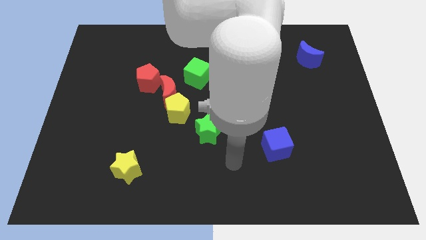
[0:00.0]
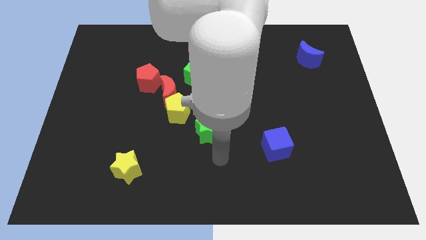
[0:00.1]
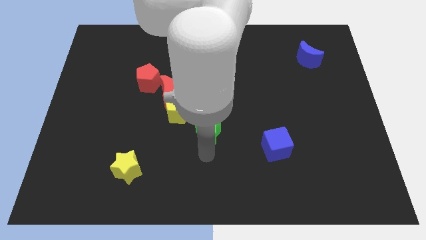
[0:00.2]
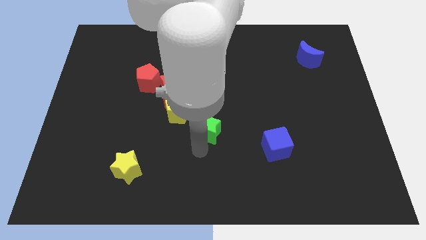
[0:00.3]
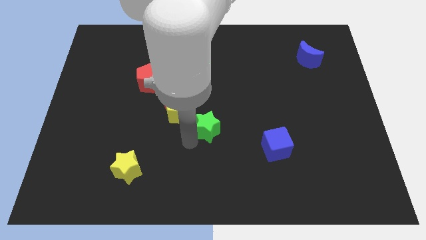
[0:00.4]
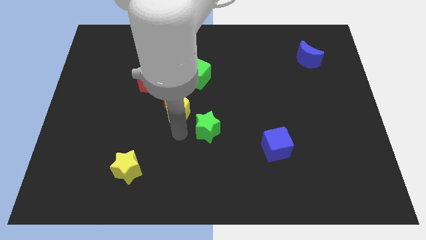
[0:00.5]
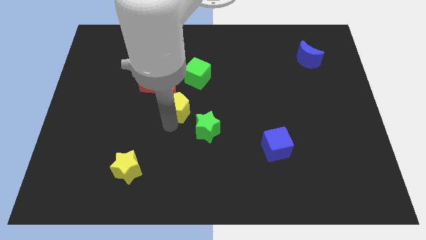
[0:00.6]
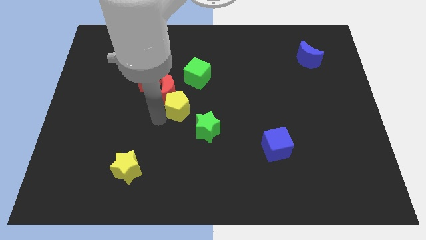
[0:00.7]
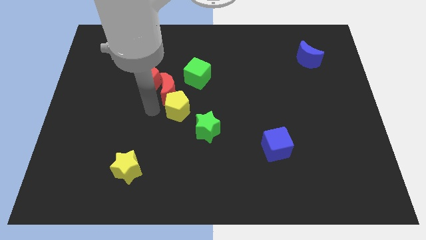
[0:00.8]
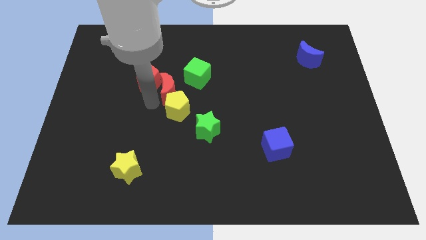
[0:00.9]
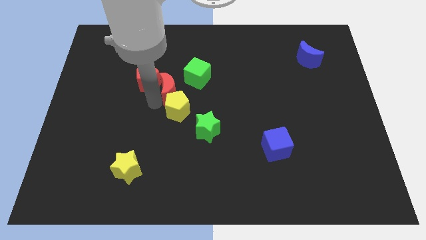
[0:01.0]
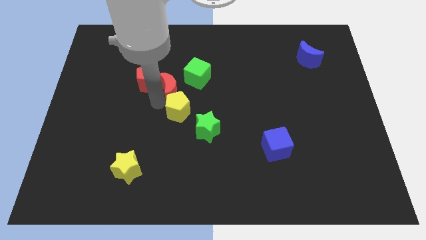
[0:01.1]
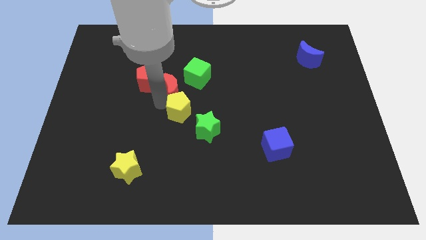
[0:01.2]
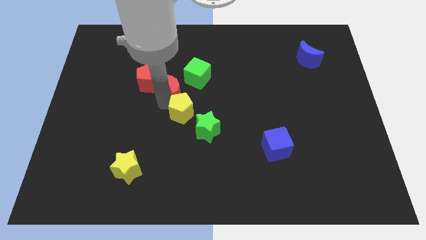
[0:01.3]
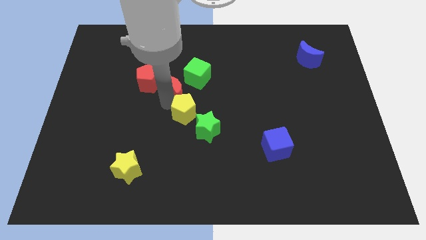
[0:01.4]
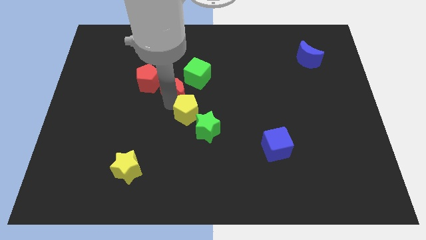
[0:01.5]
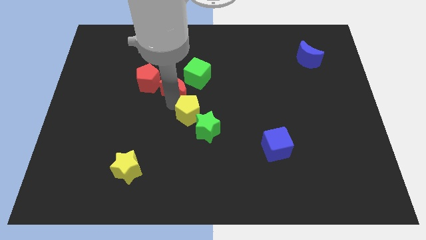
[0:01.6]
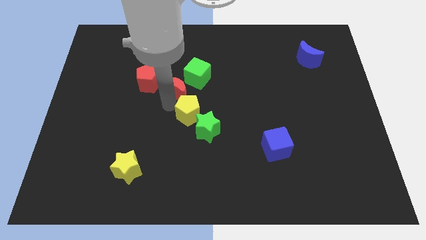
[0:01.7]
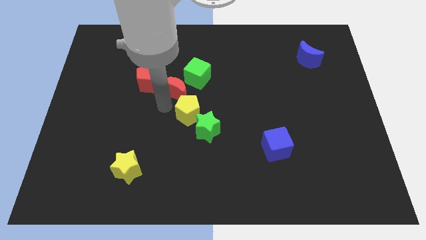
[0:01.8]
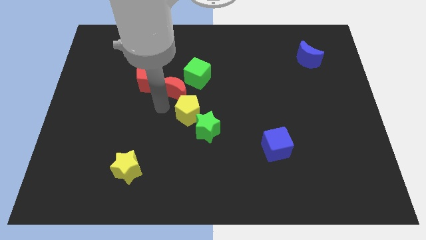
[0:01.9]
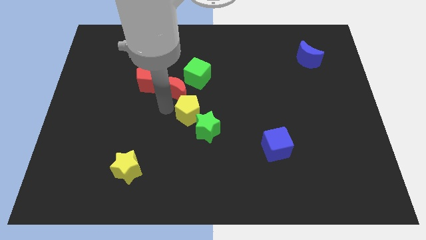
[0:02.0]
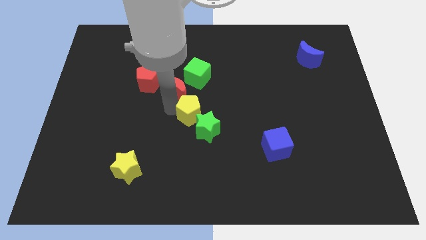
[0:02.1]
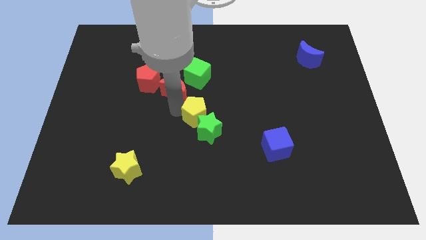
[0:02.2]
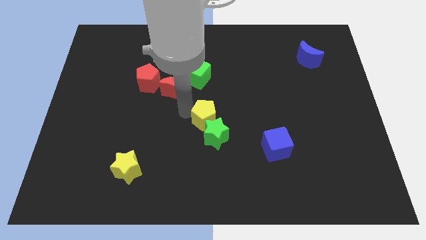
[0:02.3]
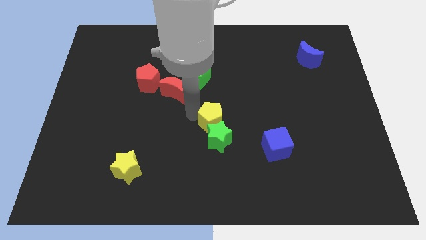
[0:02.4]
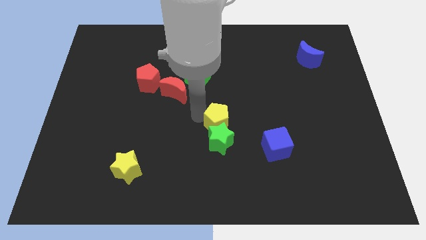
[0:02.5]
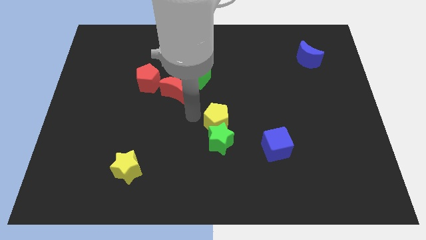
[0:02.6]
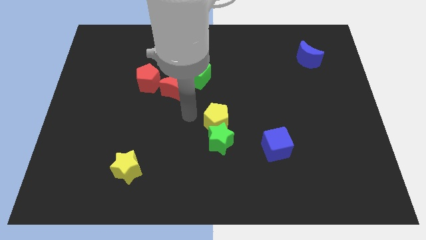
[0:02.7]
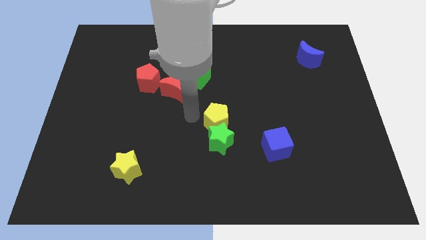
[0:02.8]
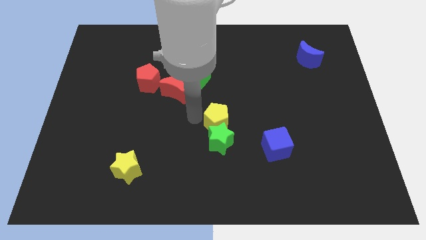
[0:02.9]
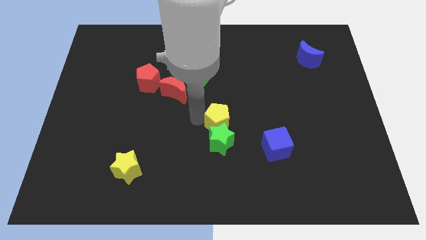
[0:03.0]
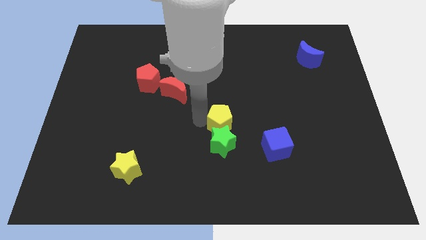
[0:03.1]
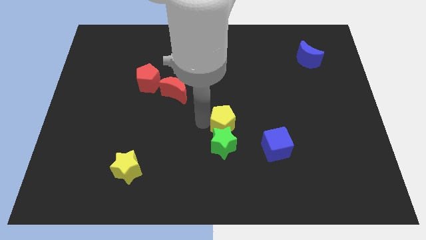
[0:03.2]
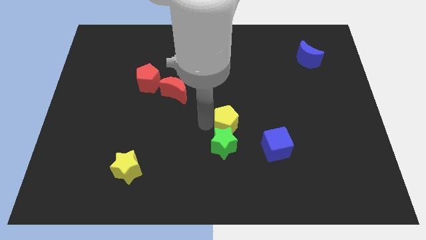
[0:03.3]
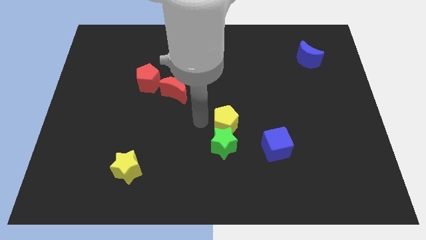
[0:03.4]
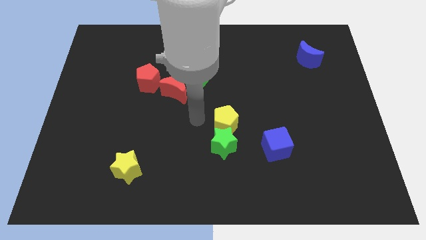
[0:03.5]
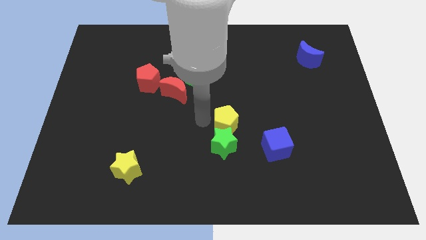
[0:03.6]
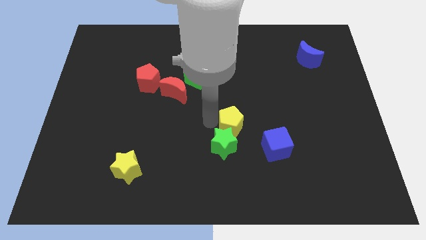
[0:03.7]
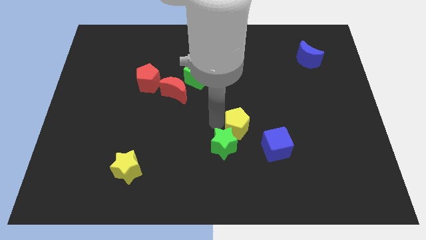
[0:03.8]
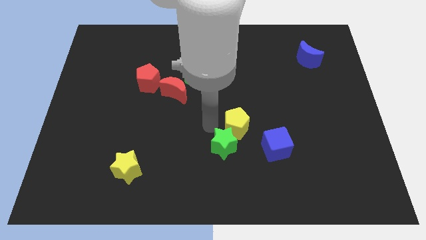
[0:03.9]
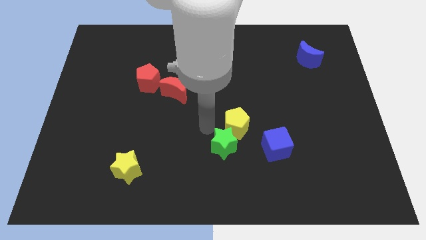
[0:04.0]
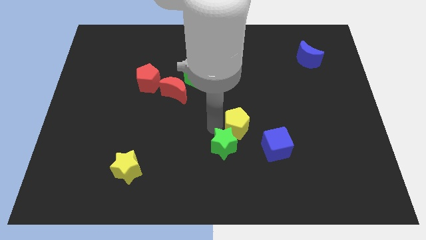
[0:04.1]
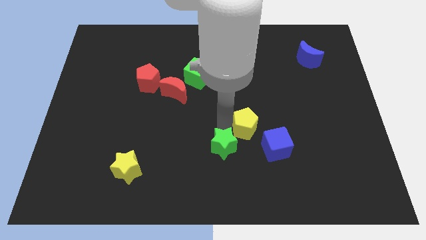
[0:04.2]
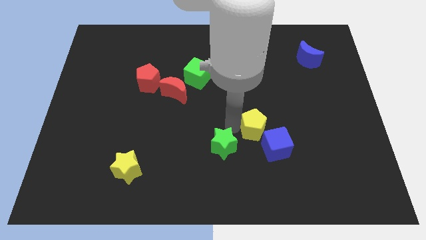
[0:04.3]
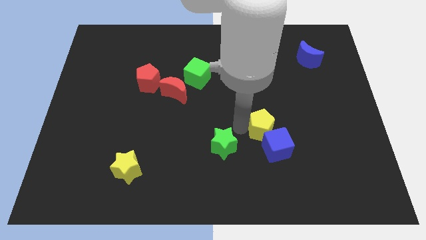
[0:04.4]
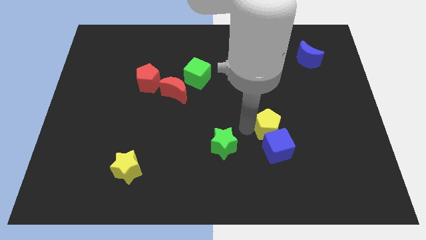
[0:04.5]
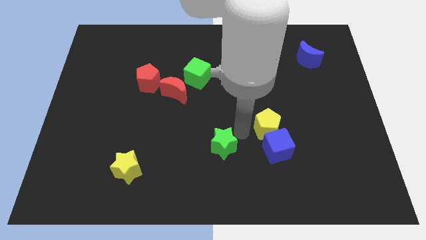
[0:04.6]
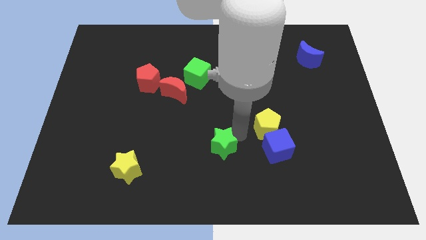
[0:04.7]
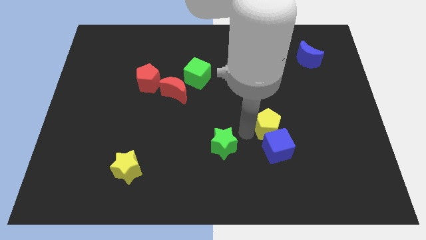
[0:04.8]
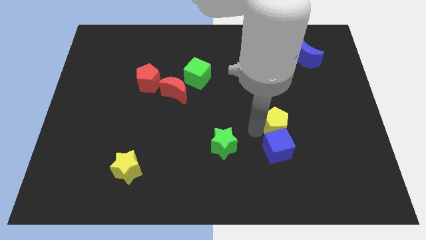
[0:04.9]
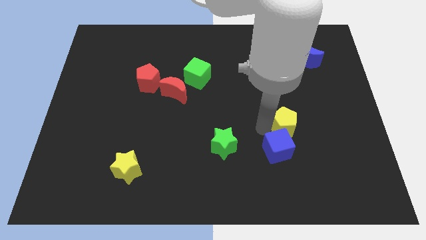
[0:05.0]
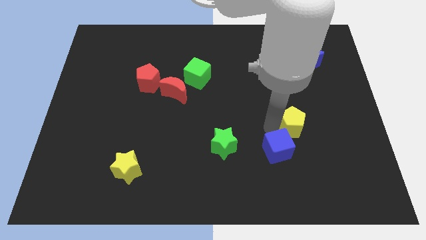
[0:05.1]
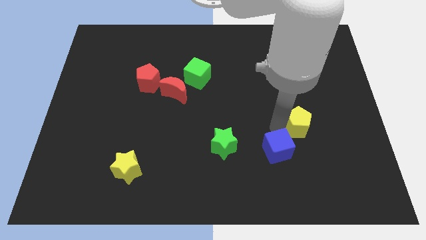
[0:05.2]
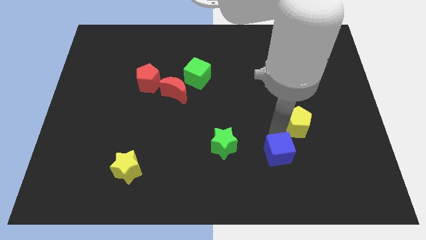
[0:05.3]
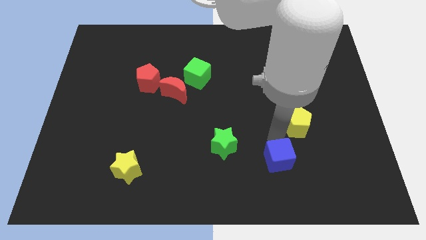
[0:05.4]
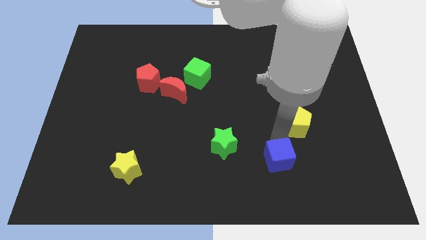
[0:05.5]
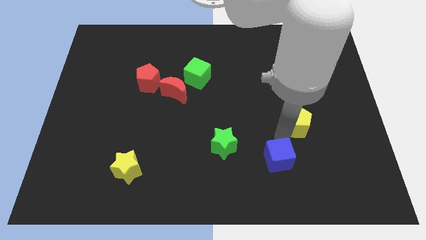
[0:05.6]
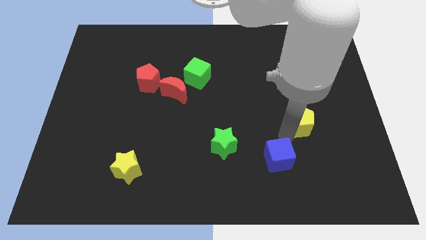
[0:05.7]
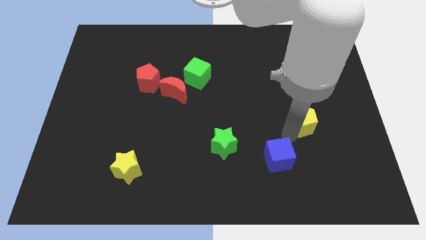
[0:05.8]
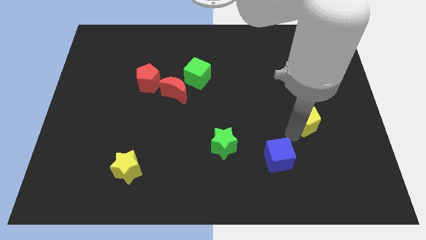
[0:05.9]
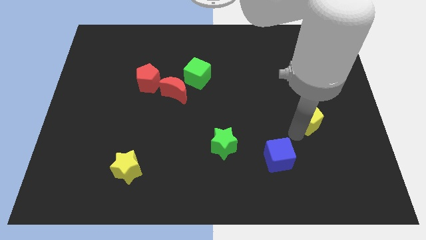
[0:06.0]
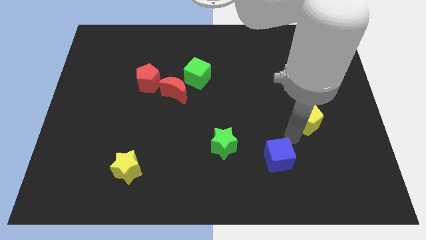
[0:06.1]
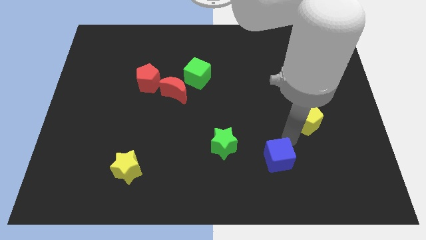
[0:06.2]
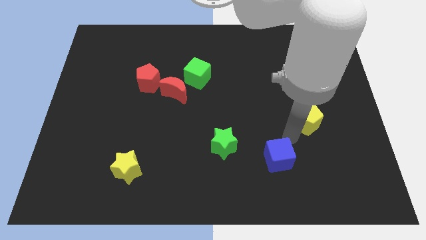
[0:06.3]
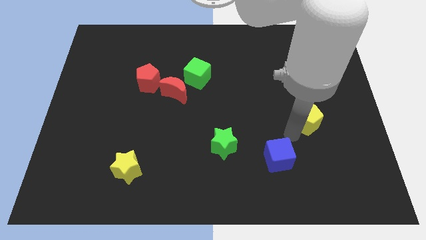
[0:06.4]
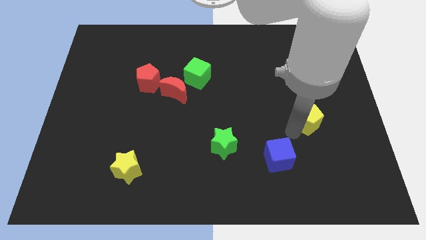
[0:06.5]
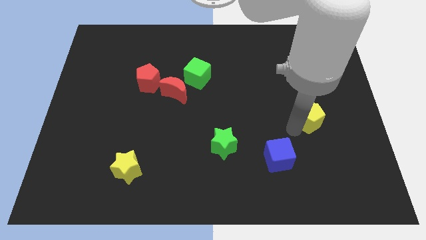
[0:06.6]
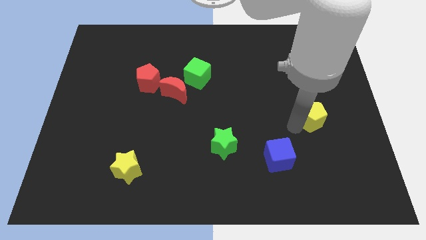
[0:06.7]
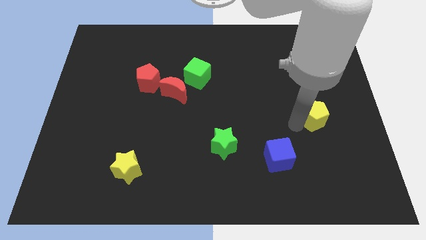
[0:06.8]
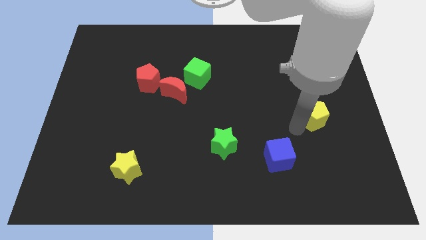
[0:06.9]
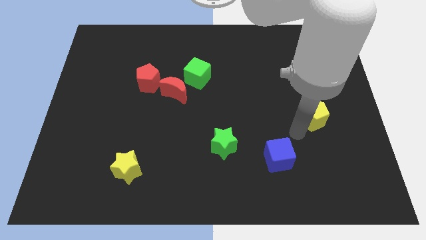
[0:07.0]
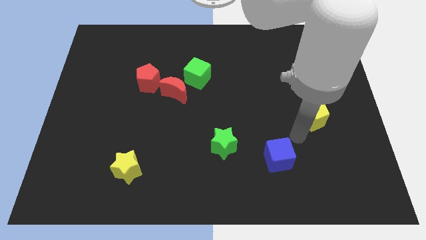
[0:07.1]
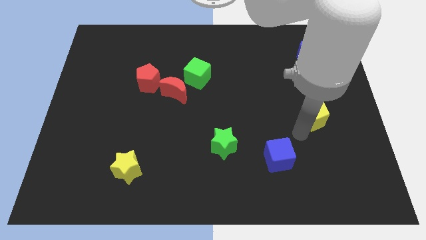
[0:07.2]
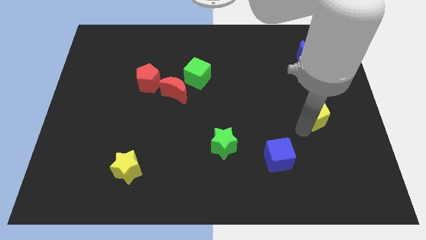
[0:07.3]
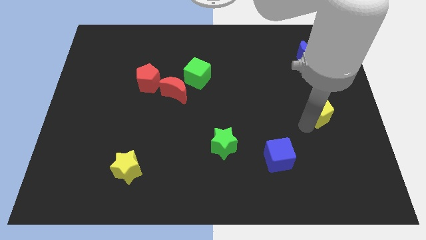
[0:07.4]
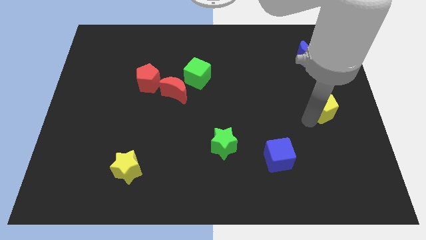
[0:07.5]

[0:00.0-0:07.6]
move the yellow pentagon to the right side of the board
